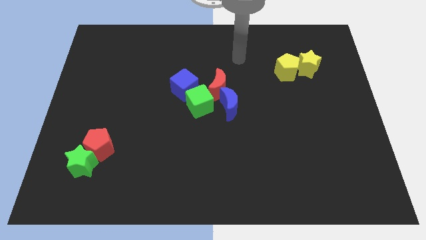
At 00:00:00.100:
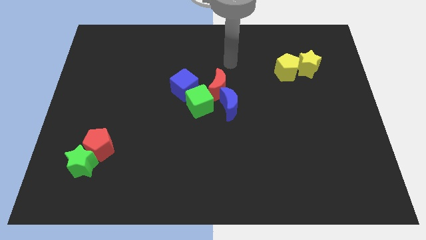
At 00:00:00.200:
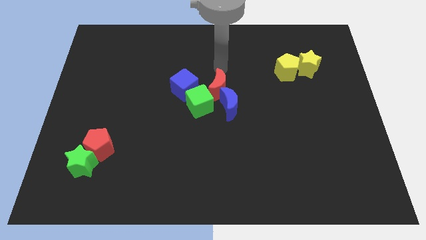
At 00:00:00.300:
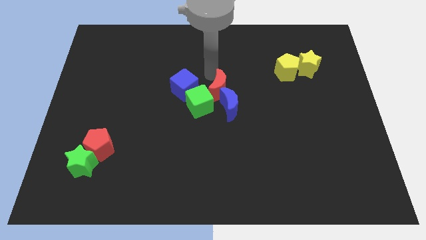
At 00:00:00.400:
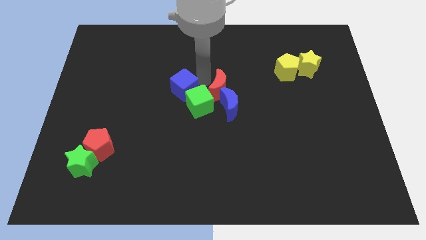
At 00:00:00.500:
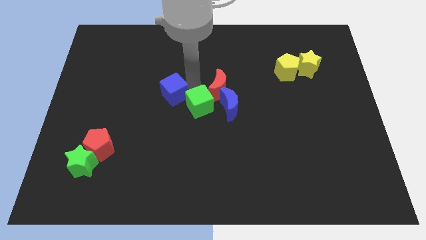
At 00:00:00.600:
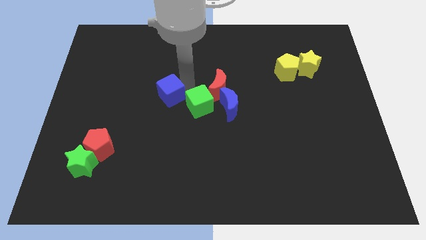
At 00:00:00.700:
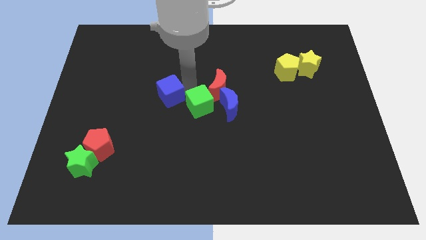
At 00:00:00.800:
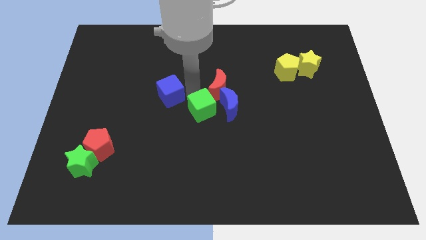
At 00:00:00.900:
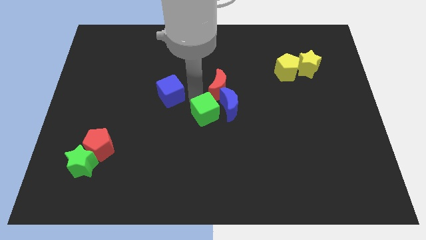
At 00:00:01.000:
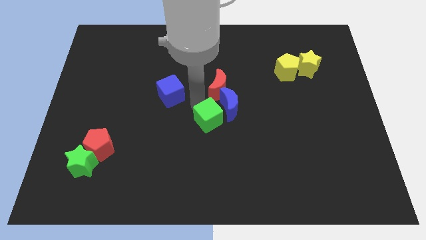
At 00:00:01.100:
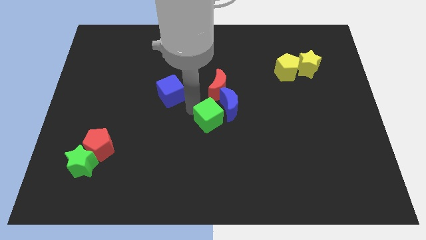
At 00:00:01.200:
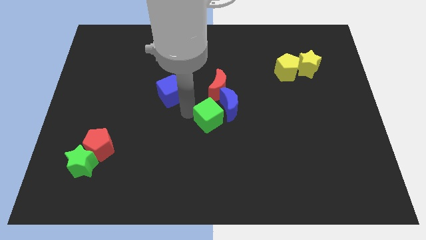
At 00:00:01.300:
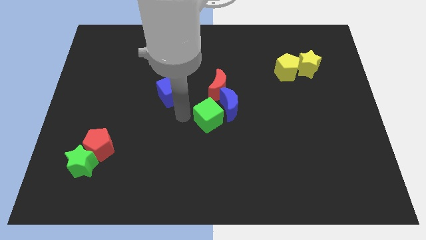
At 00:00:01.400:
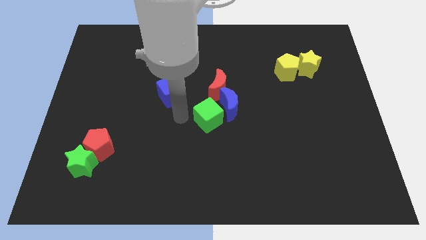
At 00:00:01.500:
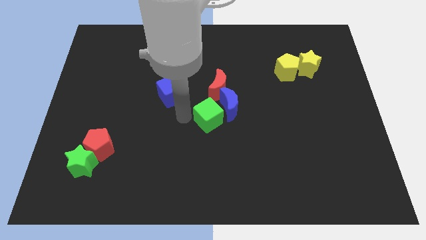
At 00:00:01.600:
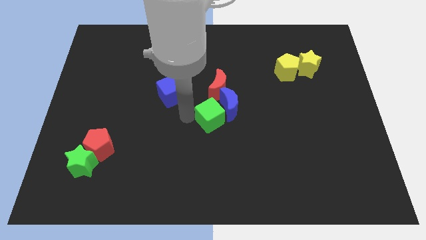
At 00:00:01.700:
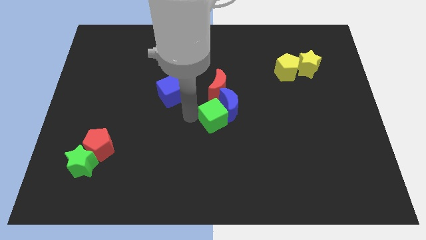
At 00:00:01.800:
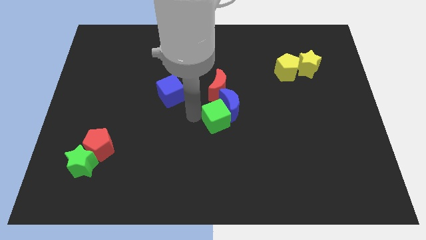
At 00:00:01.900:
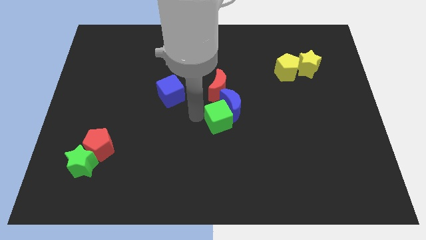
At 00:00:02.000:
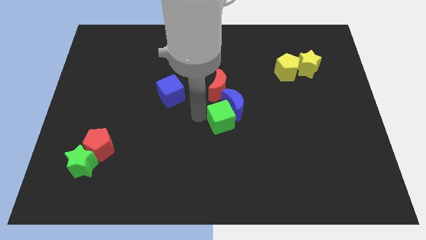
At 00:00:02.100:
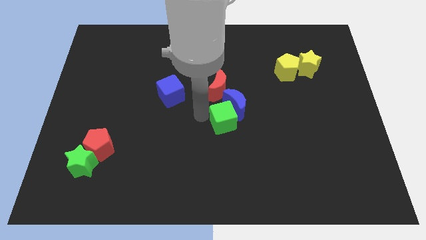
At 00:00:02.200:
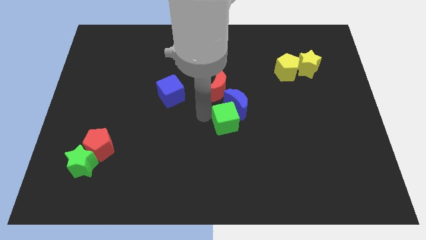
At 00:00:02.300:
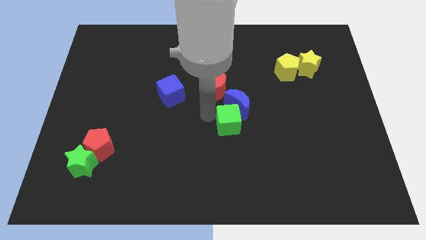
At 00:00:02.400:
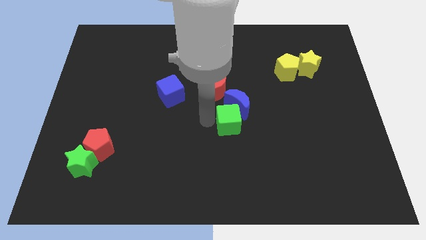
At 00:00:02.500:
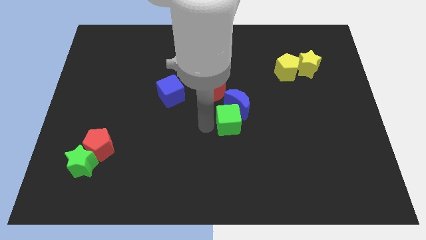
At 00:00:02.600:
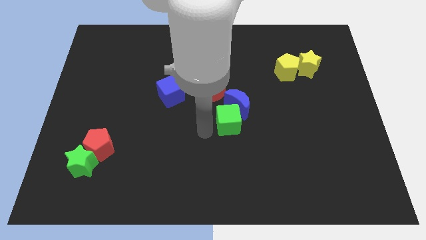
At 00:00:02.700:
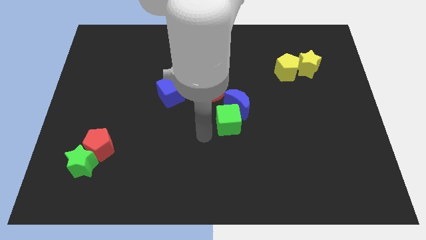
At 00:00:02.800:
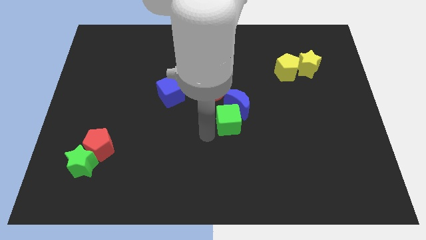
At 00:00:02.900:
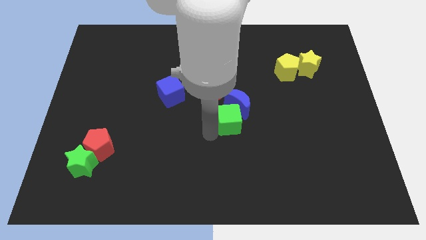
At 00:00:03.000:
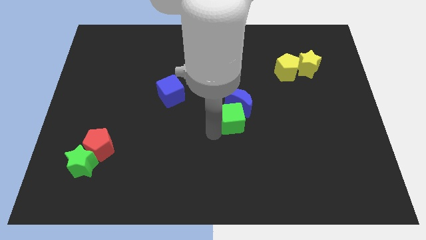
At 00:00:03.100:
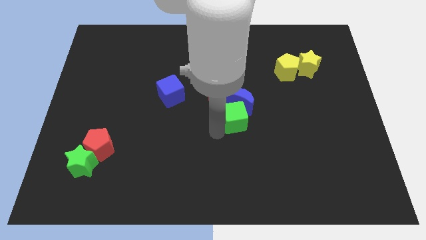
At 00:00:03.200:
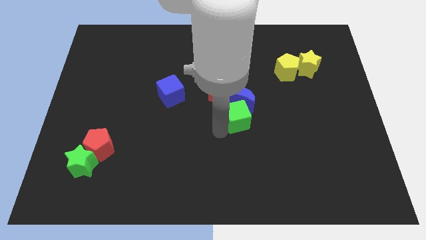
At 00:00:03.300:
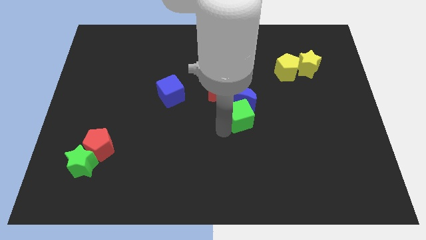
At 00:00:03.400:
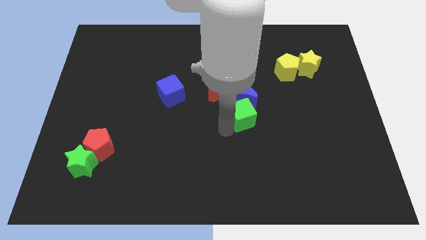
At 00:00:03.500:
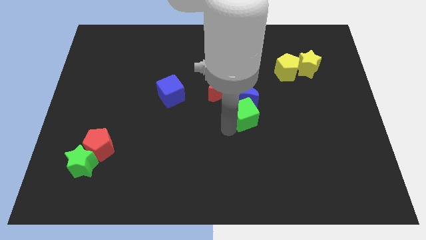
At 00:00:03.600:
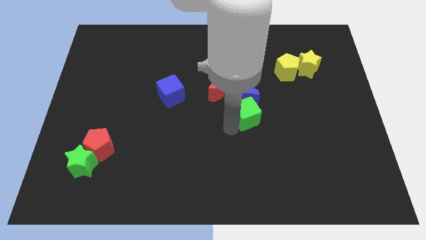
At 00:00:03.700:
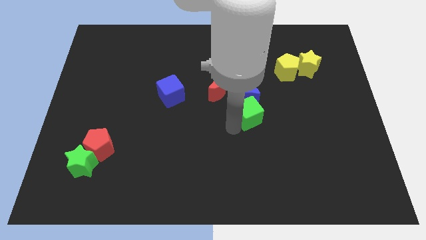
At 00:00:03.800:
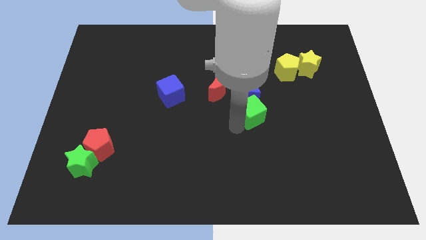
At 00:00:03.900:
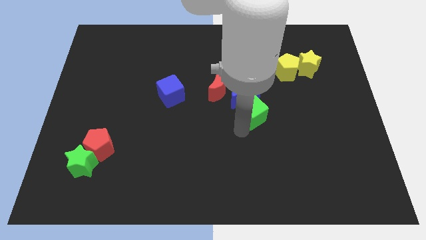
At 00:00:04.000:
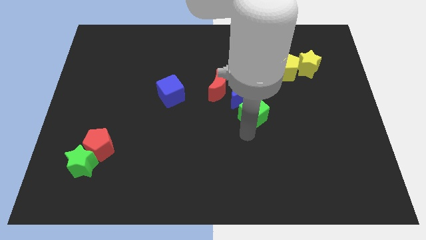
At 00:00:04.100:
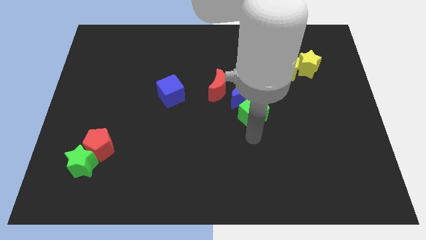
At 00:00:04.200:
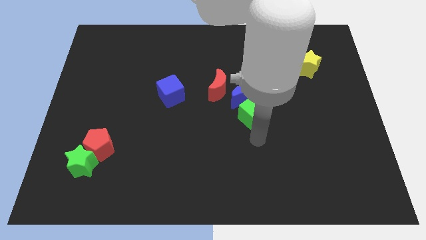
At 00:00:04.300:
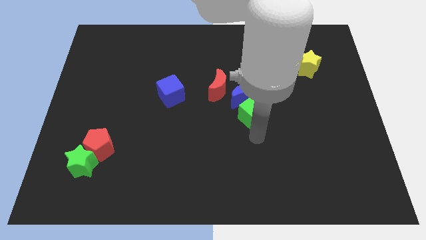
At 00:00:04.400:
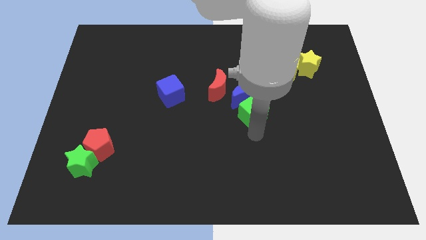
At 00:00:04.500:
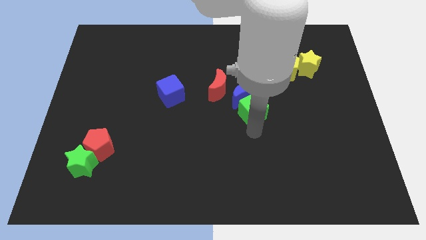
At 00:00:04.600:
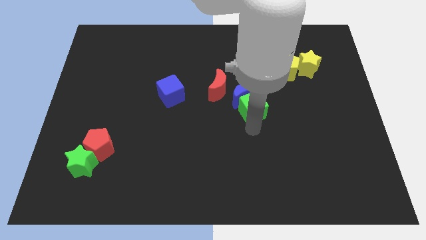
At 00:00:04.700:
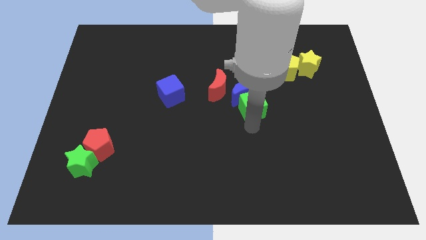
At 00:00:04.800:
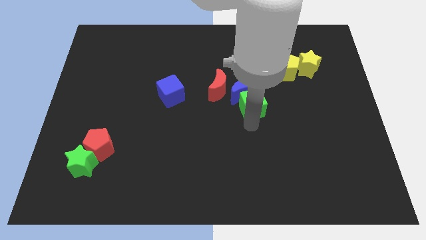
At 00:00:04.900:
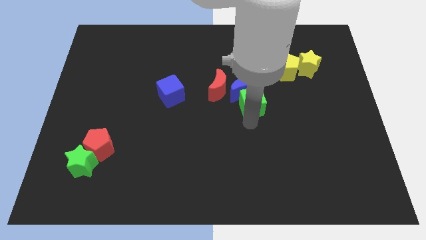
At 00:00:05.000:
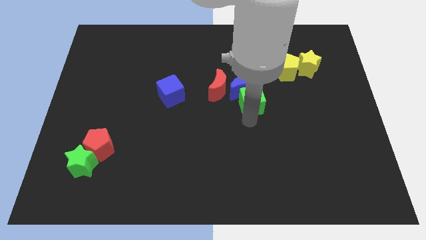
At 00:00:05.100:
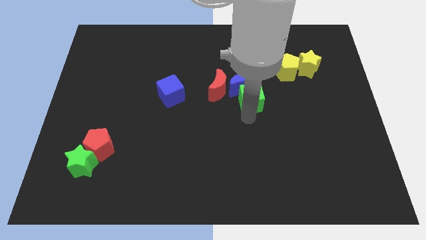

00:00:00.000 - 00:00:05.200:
push the green cube up and then right somewhat

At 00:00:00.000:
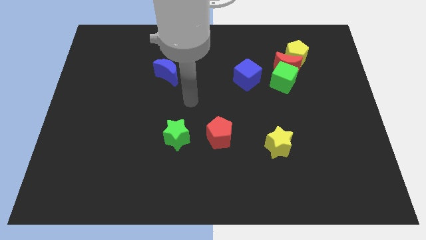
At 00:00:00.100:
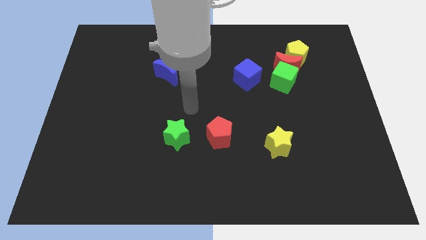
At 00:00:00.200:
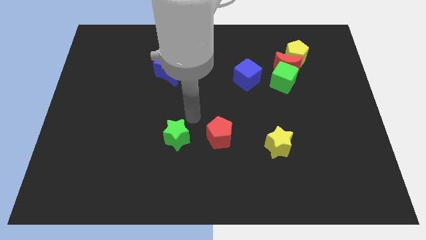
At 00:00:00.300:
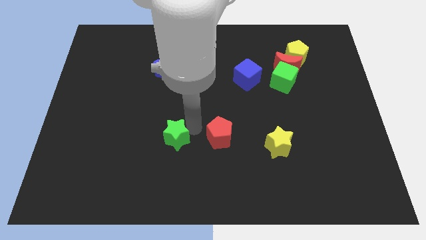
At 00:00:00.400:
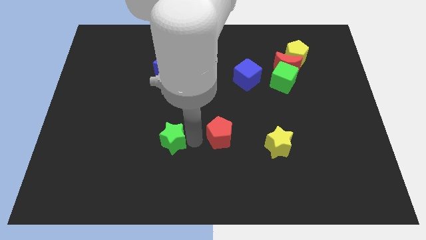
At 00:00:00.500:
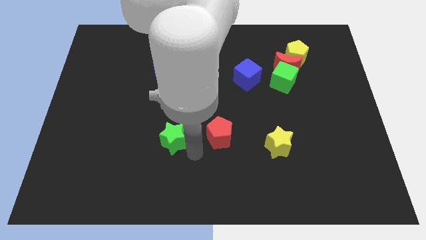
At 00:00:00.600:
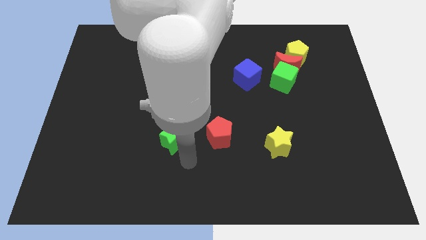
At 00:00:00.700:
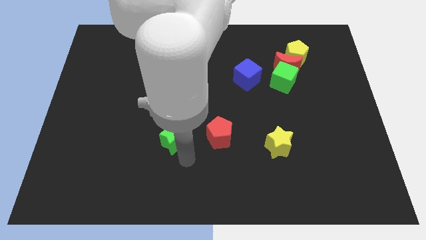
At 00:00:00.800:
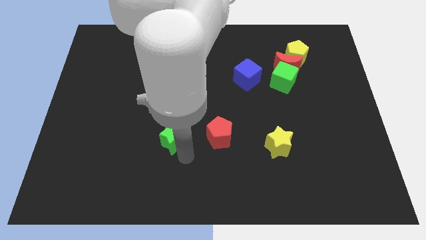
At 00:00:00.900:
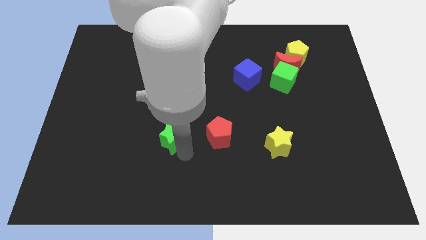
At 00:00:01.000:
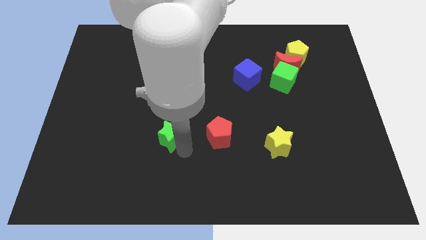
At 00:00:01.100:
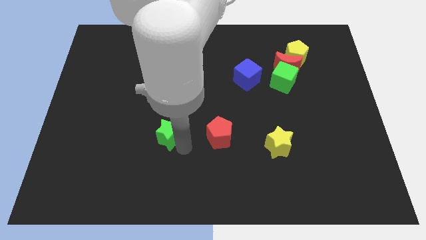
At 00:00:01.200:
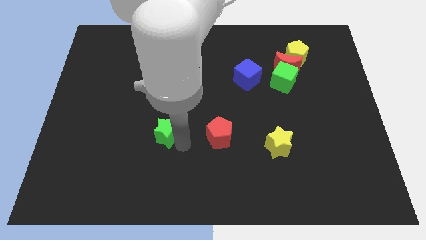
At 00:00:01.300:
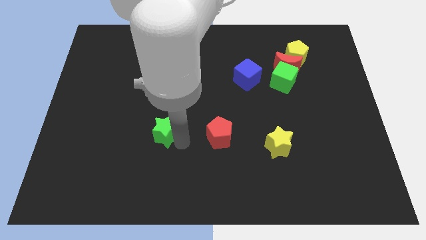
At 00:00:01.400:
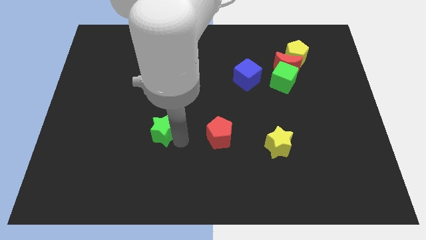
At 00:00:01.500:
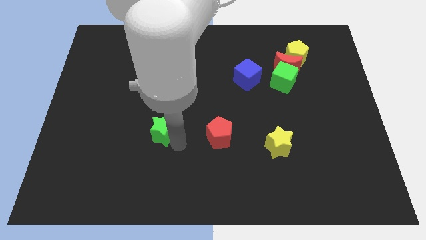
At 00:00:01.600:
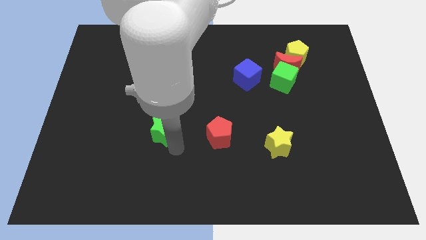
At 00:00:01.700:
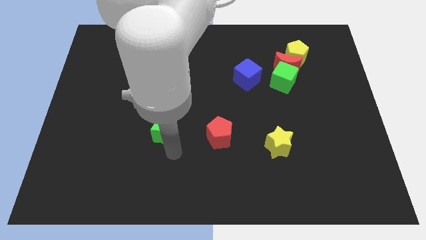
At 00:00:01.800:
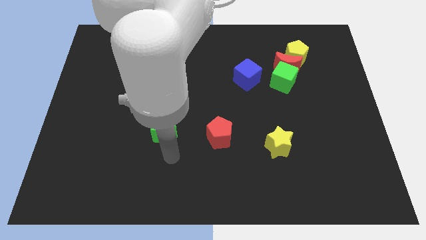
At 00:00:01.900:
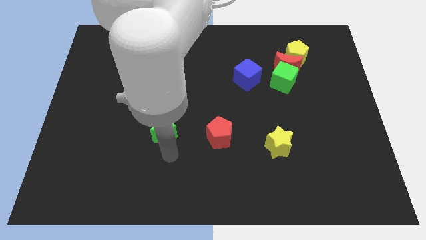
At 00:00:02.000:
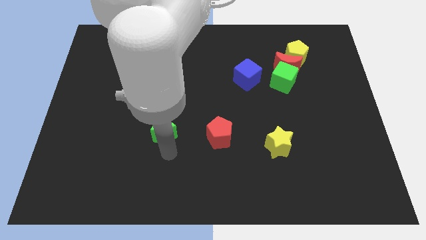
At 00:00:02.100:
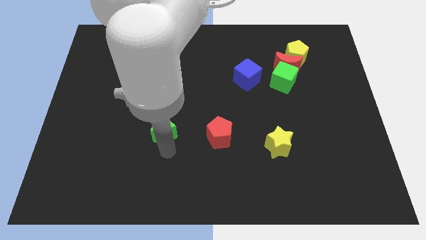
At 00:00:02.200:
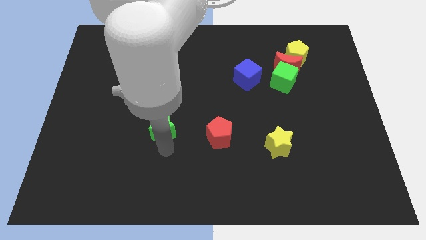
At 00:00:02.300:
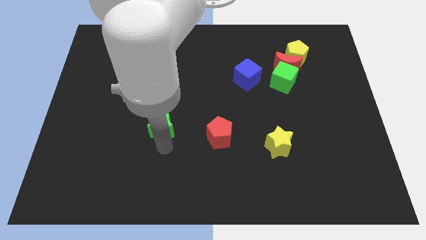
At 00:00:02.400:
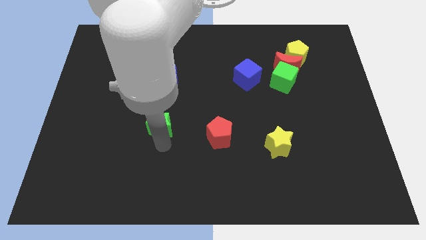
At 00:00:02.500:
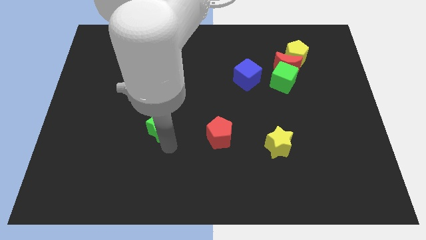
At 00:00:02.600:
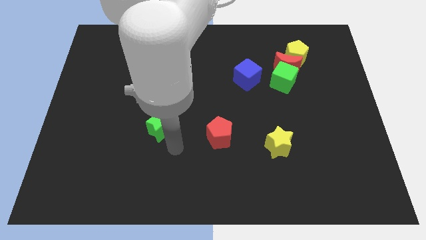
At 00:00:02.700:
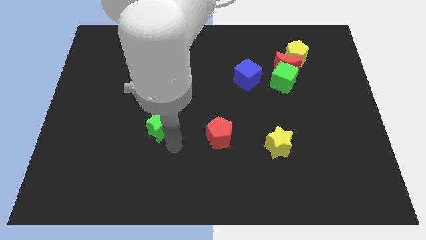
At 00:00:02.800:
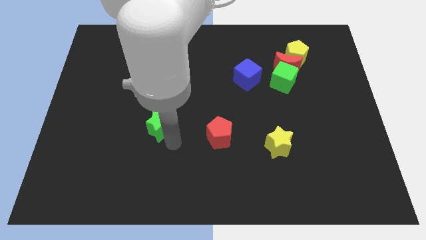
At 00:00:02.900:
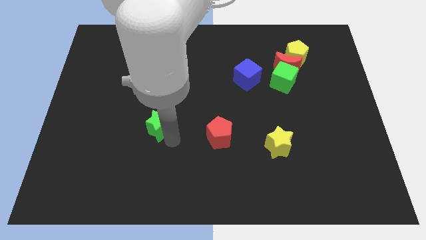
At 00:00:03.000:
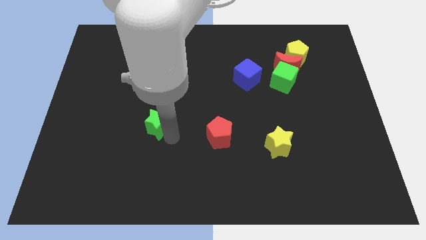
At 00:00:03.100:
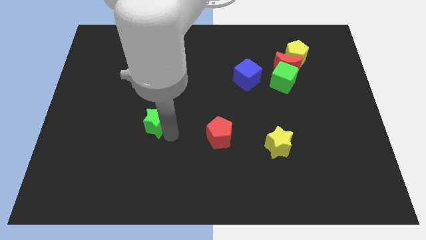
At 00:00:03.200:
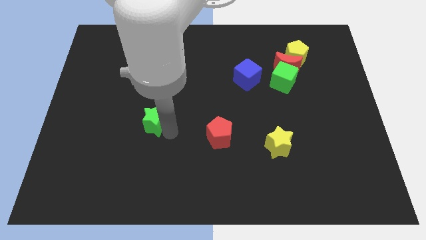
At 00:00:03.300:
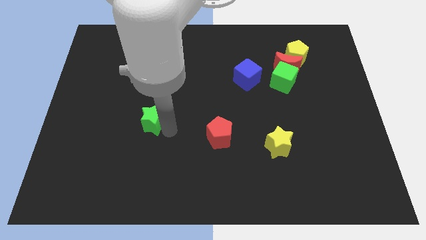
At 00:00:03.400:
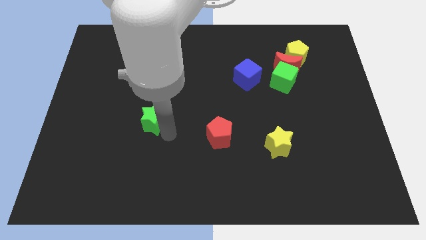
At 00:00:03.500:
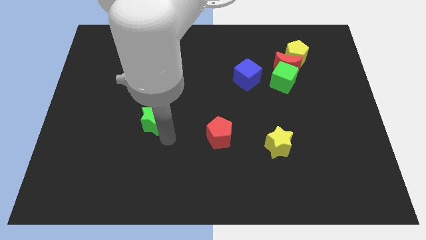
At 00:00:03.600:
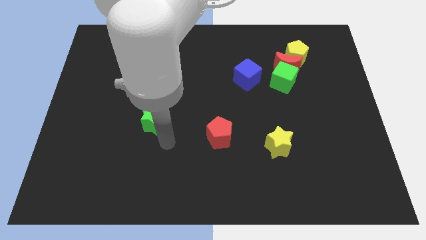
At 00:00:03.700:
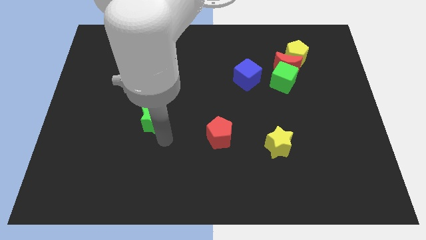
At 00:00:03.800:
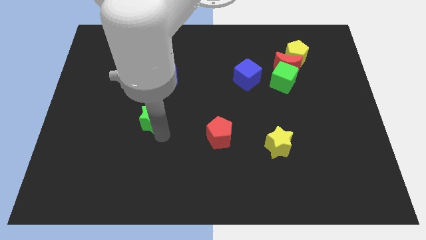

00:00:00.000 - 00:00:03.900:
slightly move the green star up and to the left diagonally
